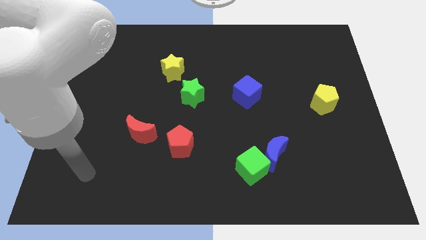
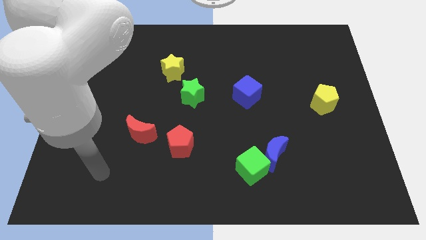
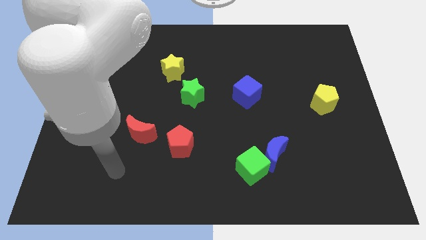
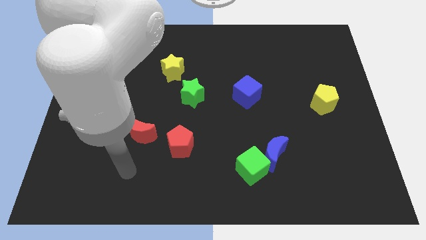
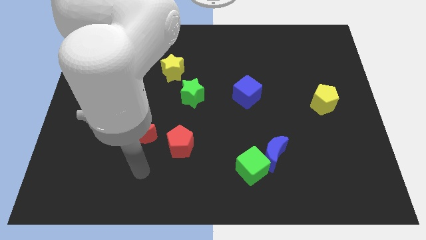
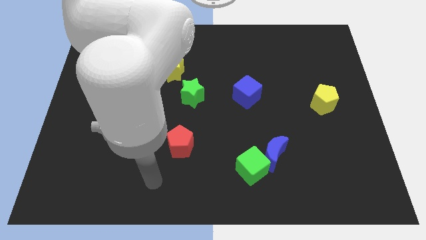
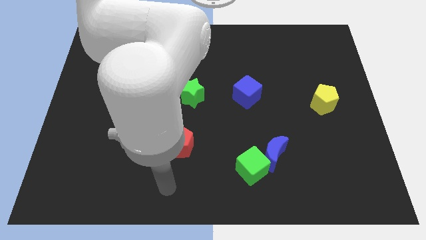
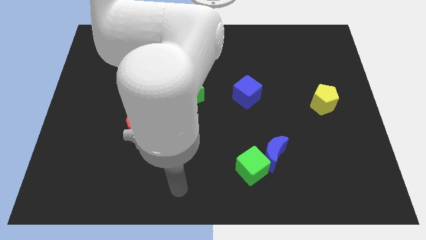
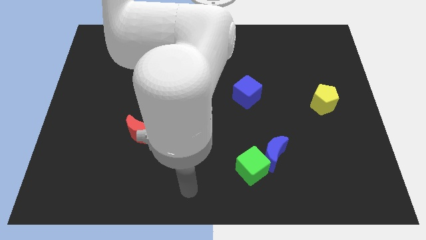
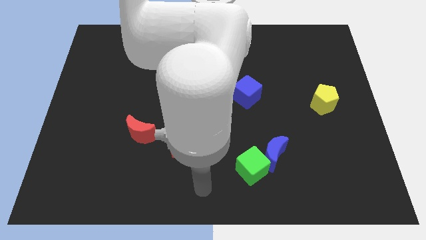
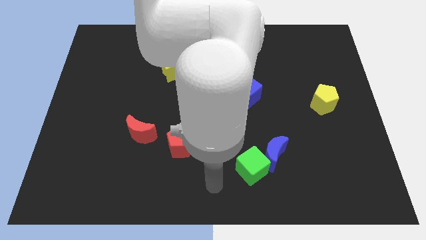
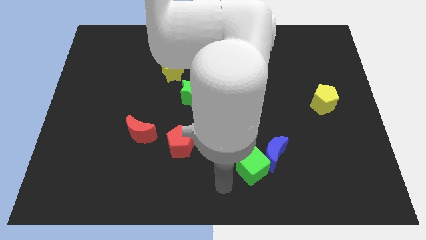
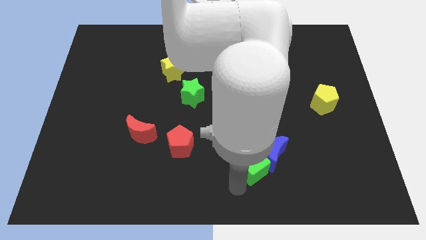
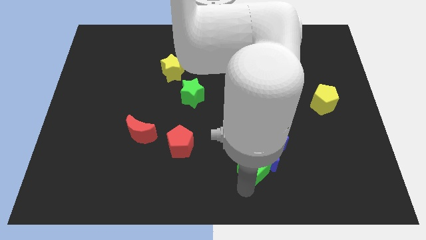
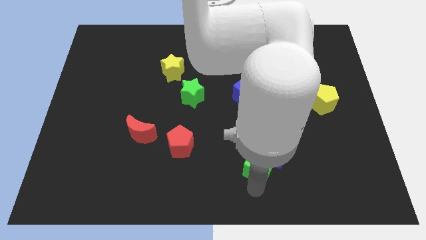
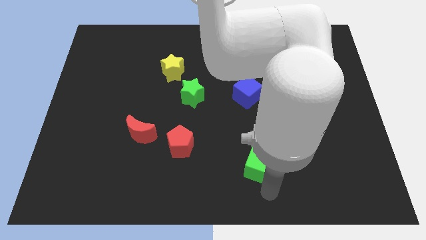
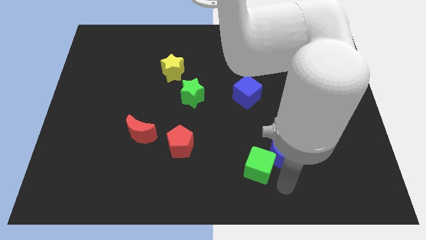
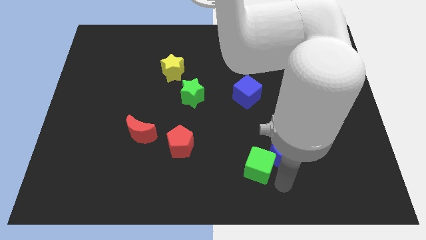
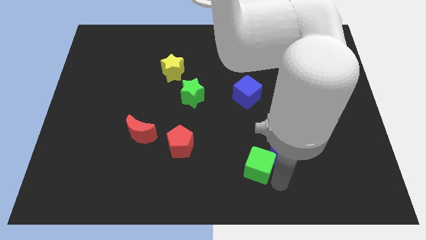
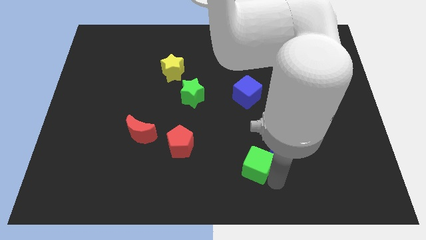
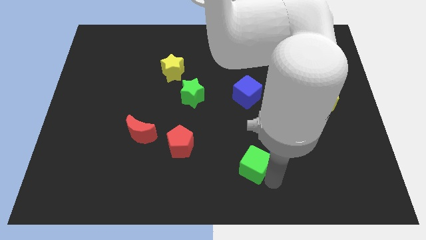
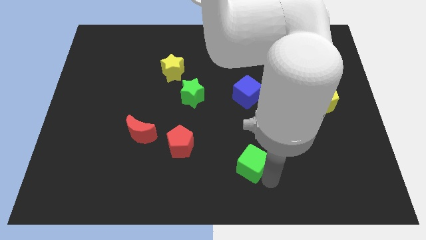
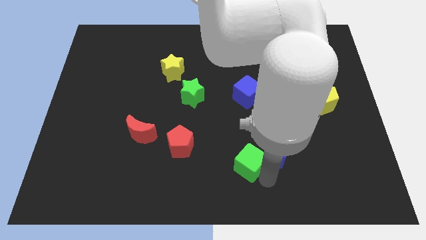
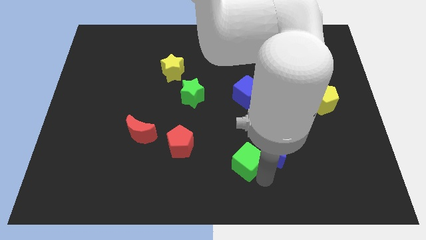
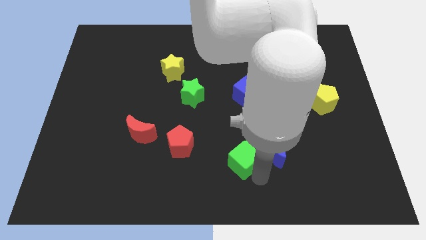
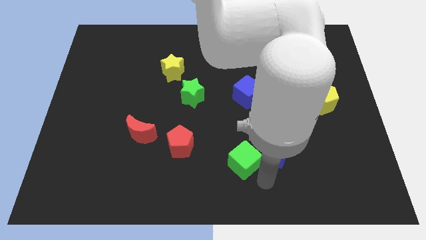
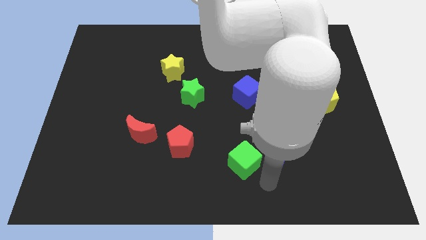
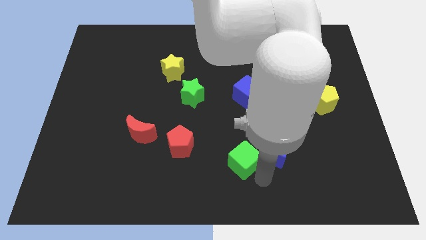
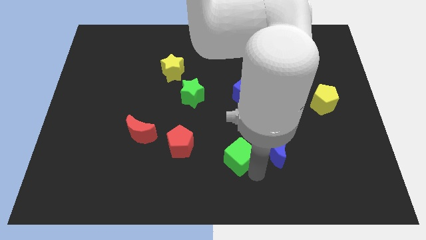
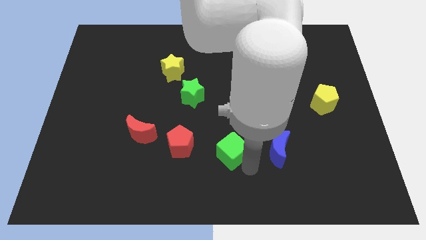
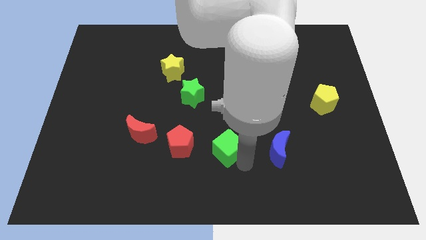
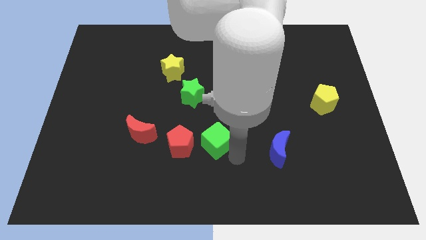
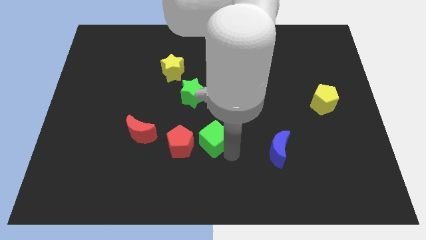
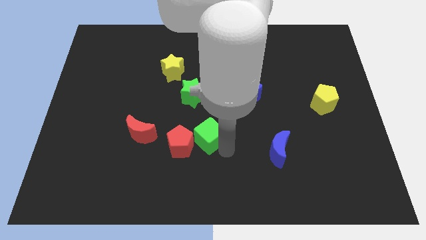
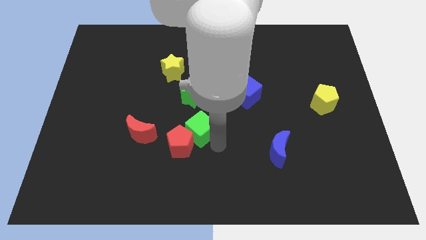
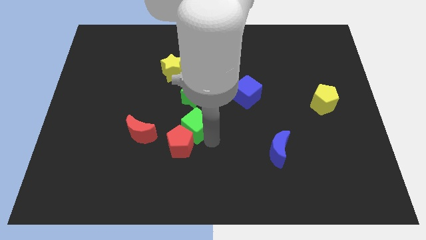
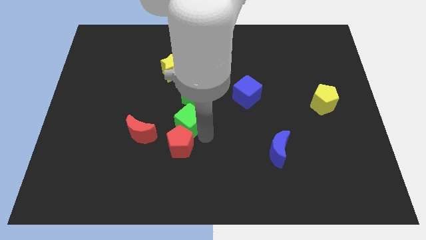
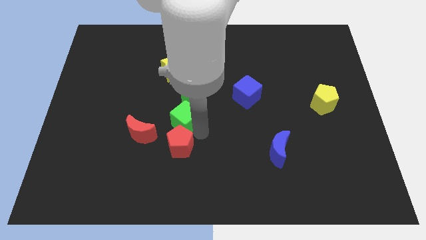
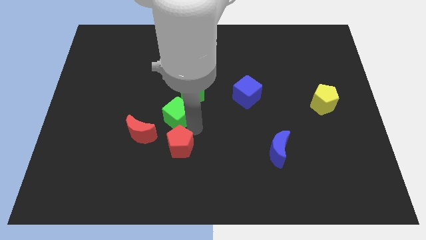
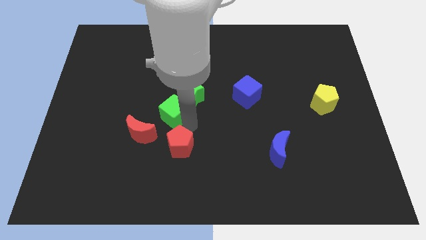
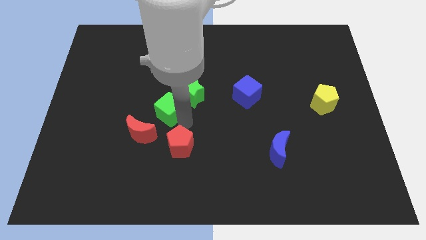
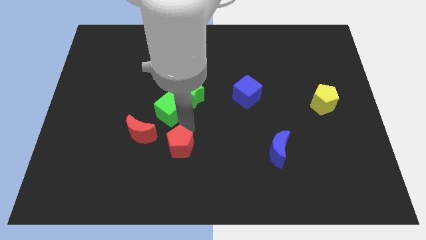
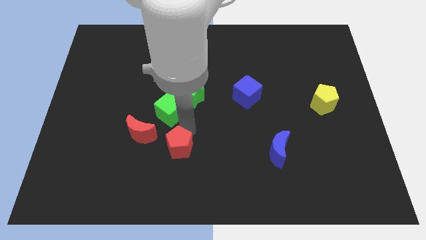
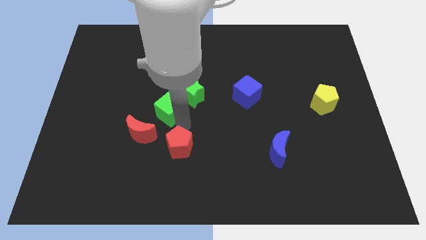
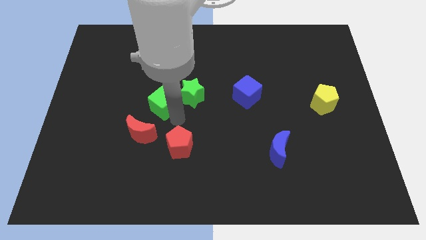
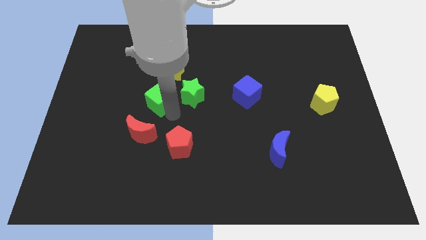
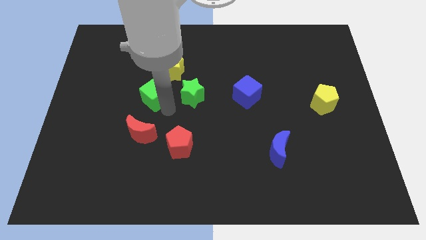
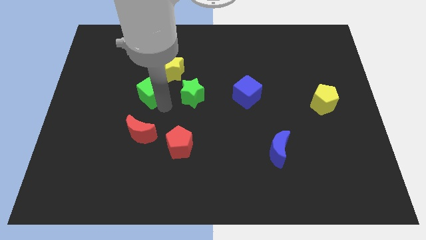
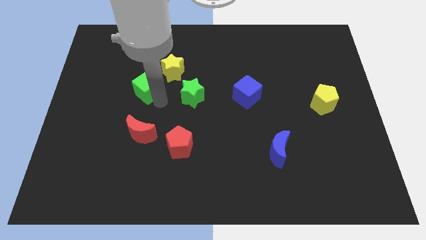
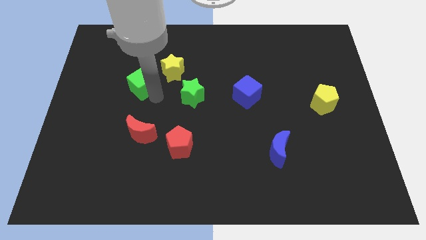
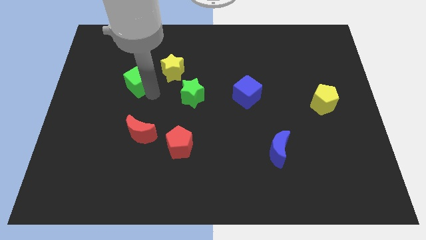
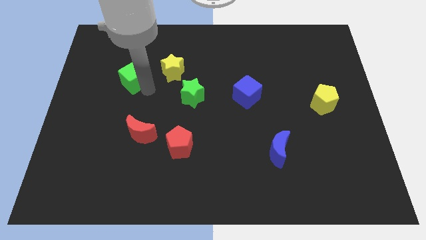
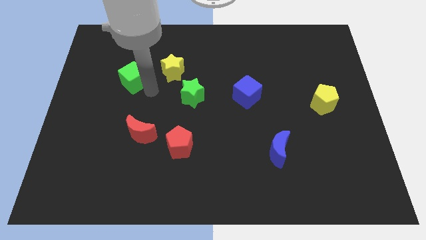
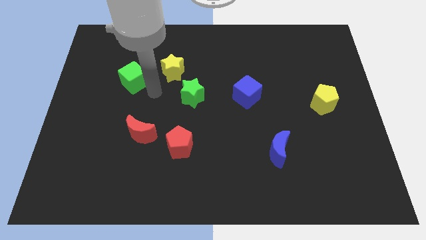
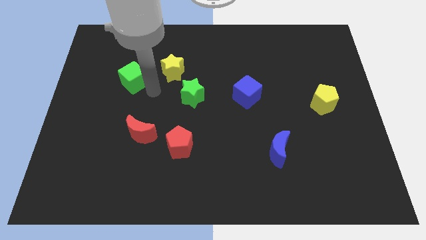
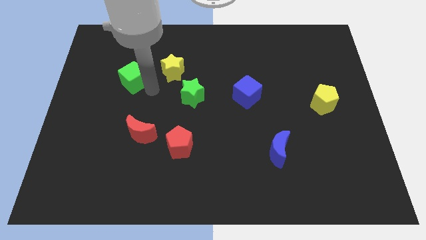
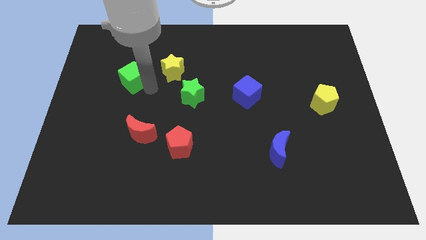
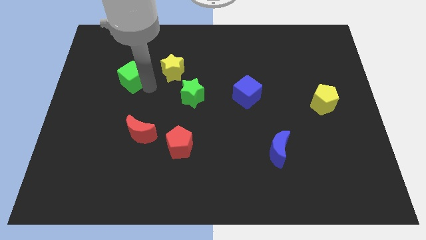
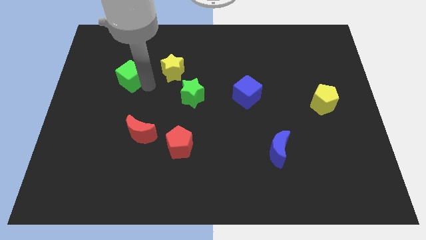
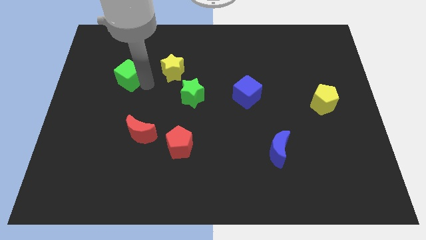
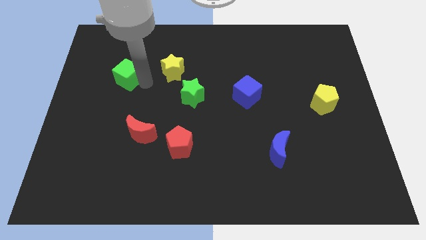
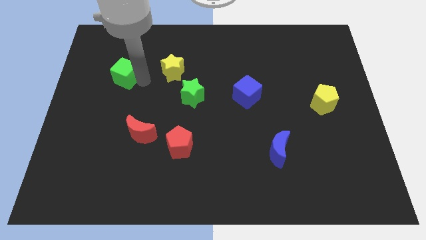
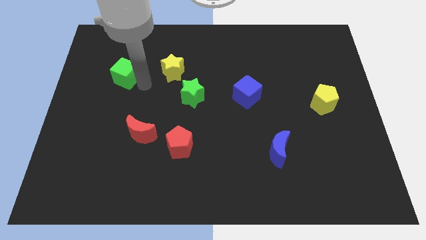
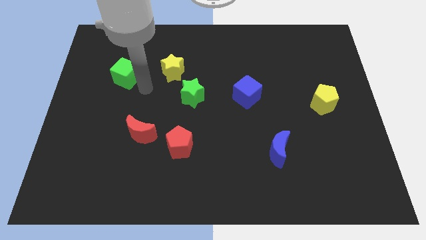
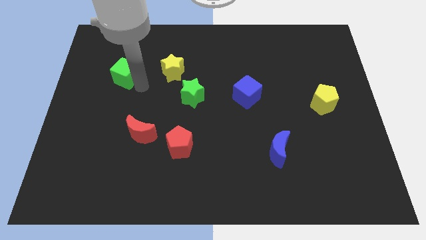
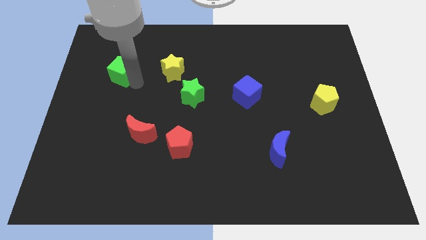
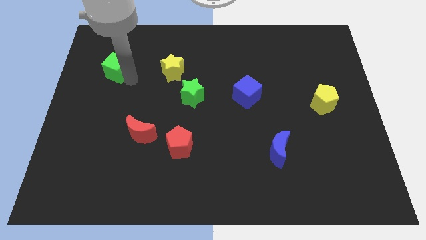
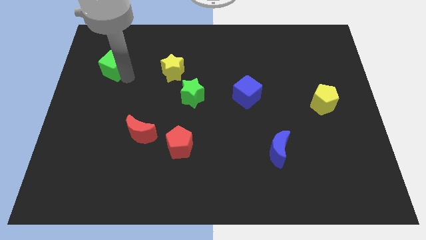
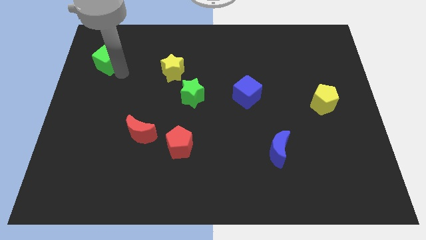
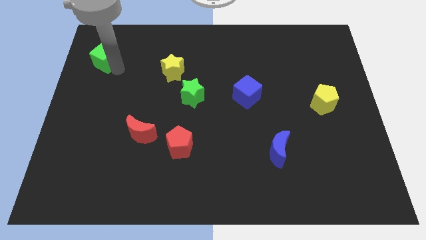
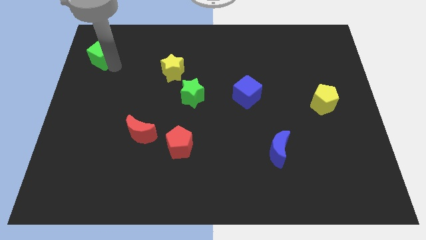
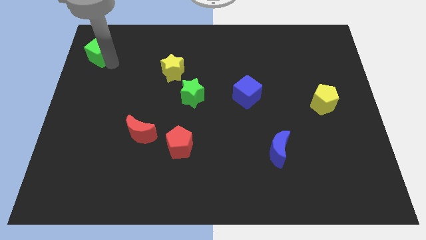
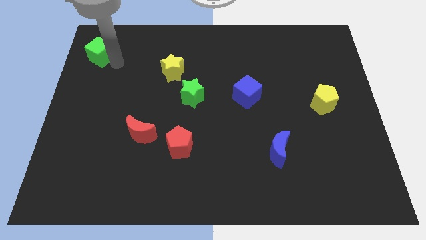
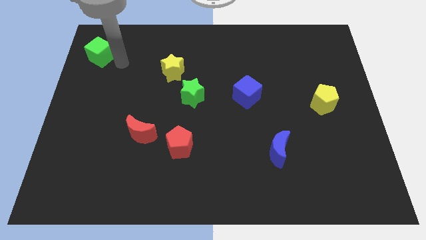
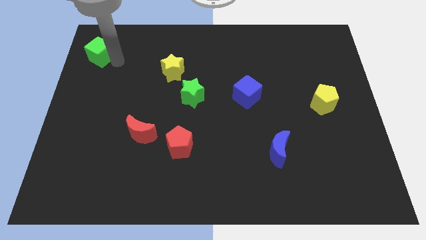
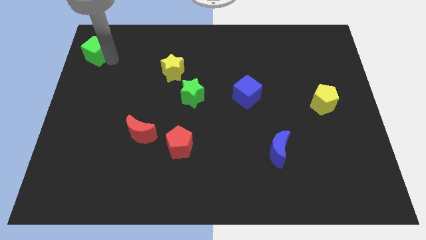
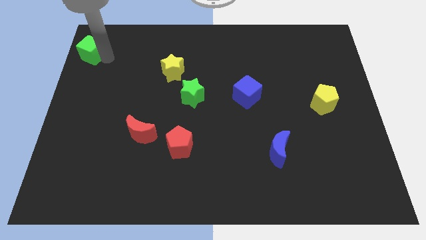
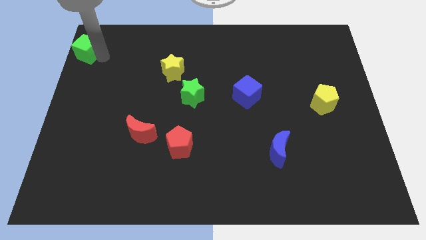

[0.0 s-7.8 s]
push the green cube to the top left corner
